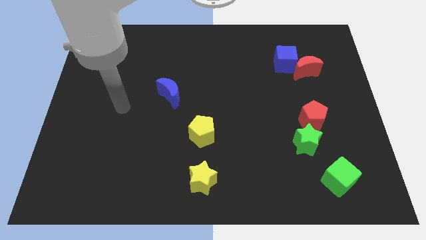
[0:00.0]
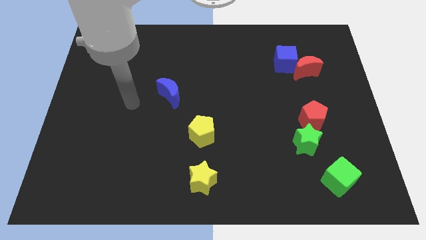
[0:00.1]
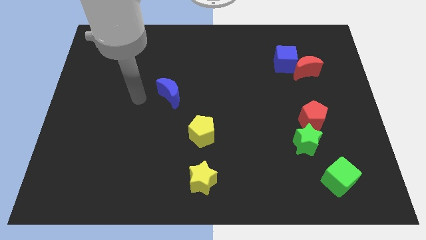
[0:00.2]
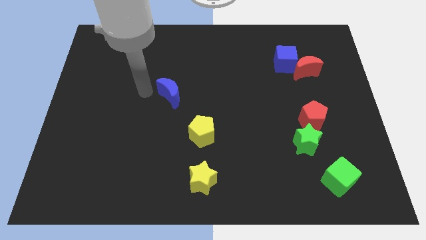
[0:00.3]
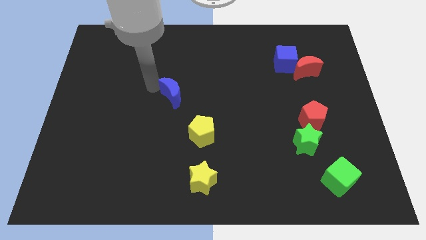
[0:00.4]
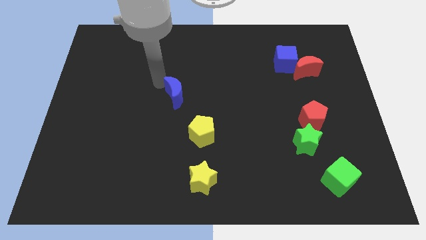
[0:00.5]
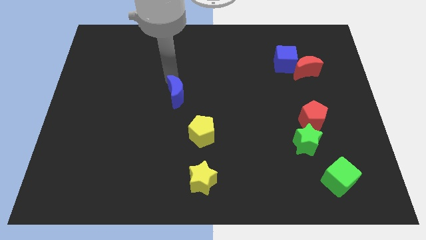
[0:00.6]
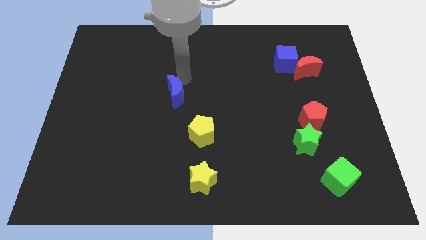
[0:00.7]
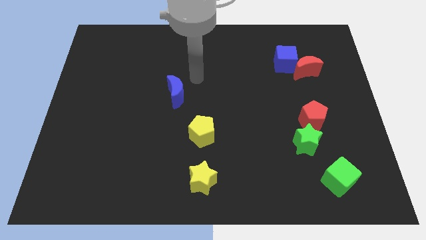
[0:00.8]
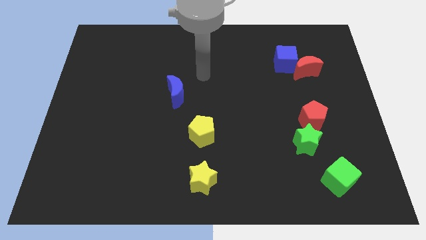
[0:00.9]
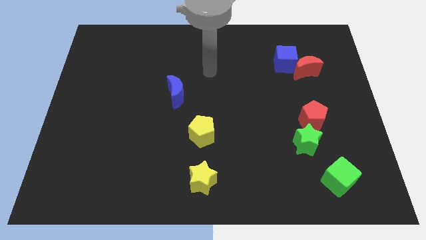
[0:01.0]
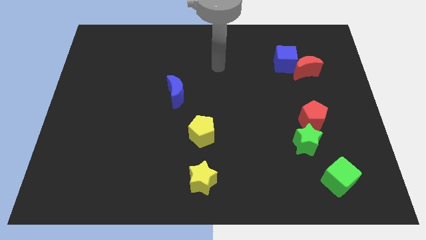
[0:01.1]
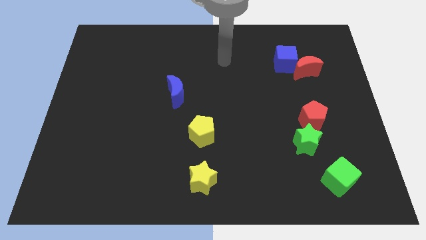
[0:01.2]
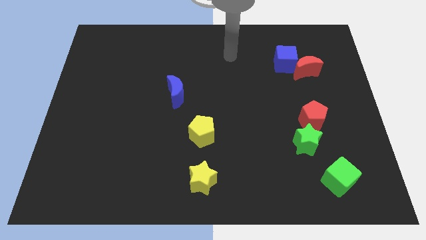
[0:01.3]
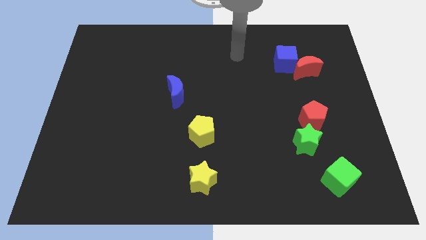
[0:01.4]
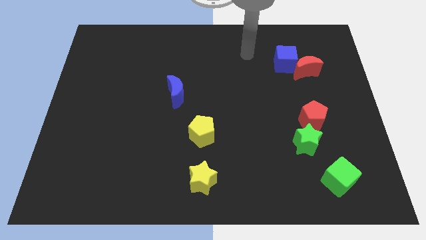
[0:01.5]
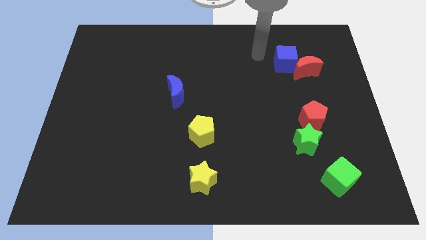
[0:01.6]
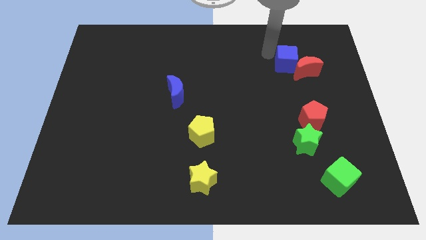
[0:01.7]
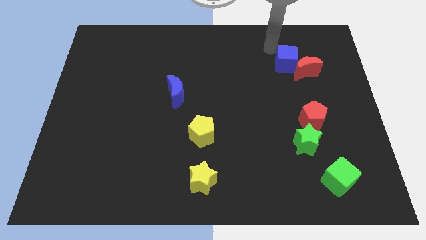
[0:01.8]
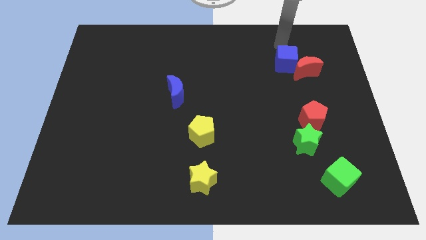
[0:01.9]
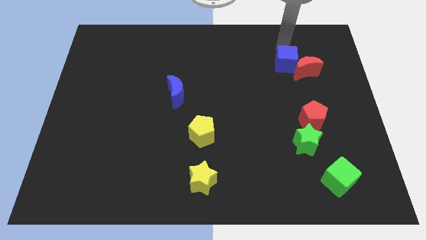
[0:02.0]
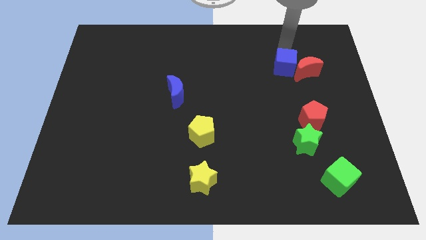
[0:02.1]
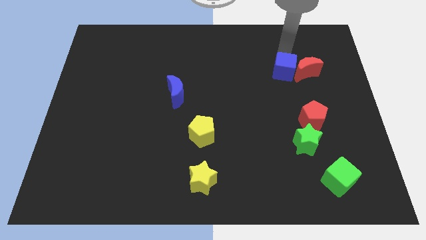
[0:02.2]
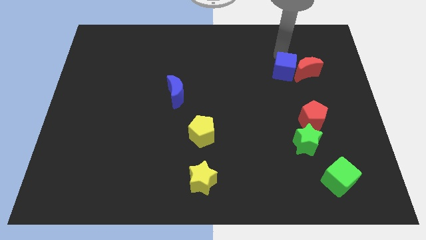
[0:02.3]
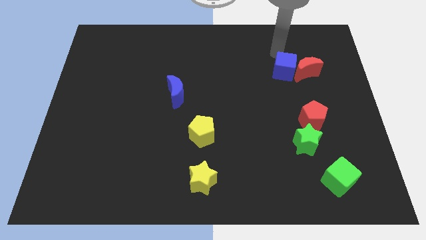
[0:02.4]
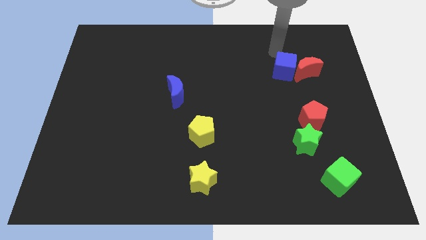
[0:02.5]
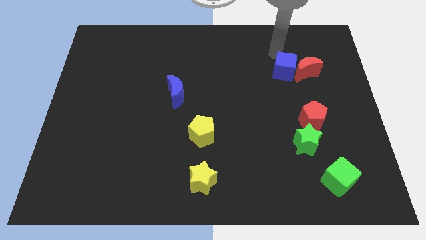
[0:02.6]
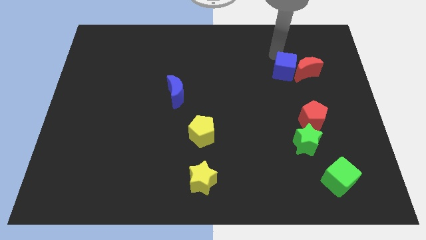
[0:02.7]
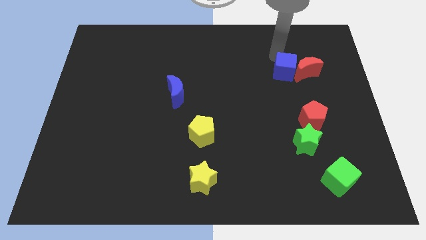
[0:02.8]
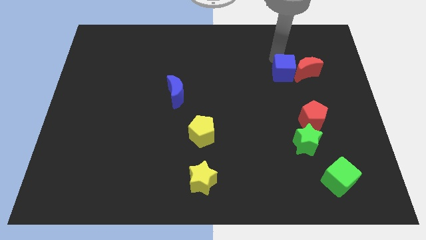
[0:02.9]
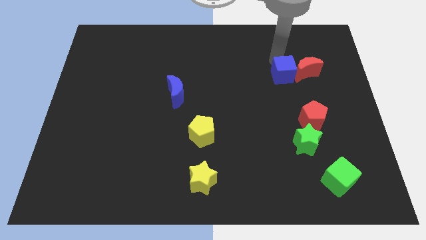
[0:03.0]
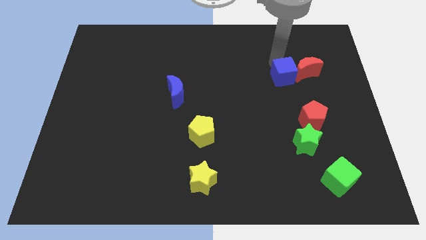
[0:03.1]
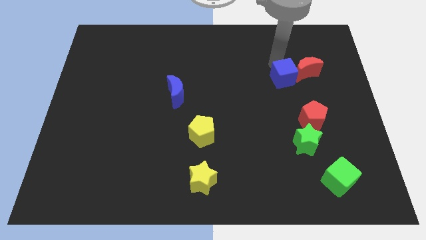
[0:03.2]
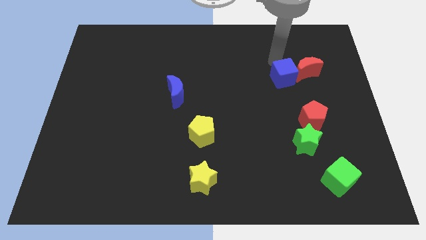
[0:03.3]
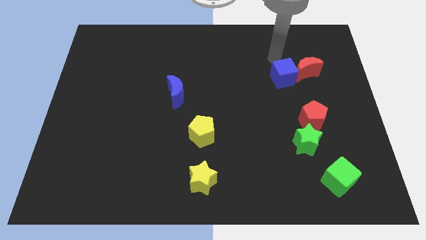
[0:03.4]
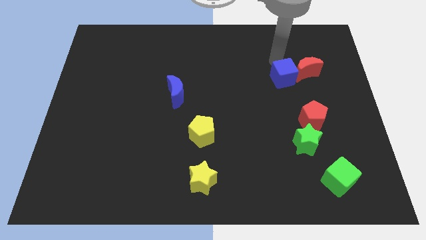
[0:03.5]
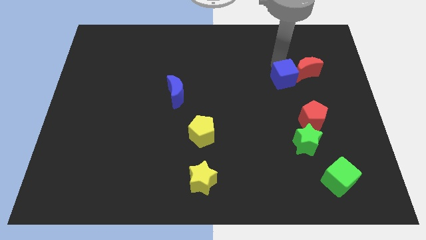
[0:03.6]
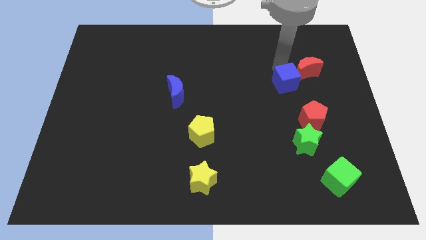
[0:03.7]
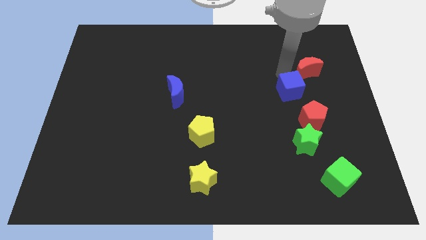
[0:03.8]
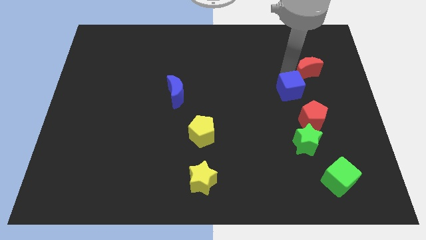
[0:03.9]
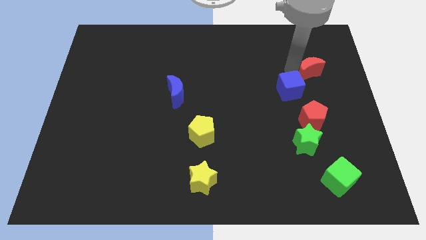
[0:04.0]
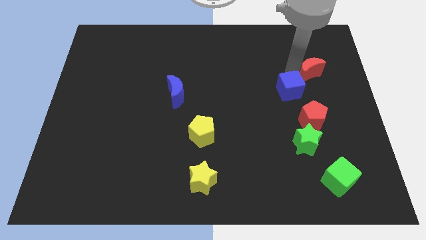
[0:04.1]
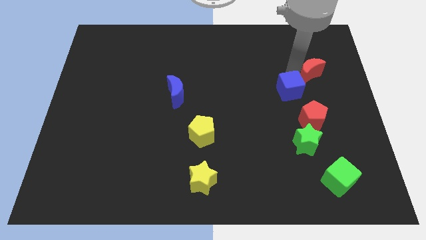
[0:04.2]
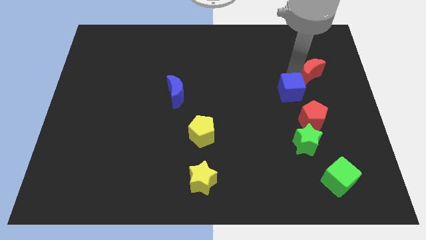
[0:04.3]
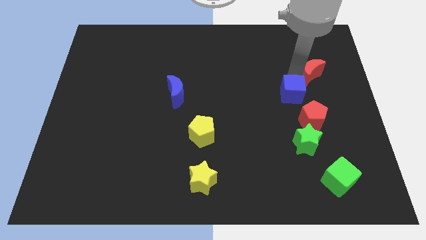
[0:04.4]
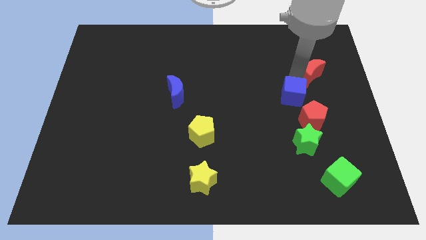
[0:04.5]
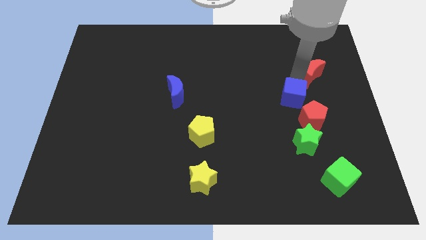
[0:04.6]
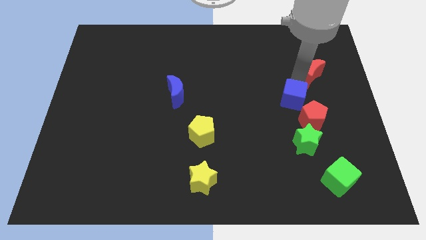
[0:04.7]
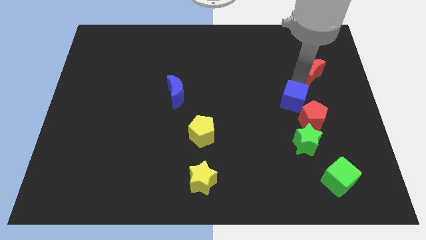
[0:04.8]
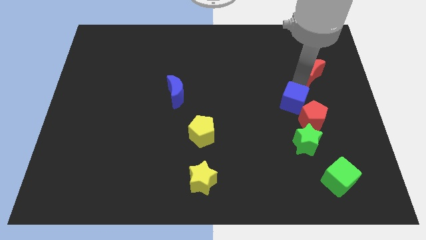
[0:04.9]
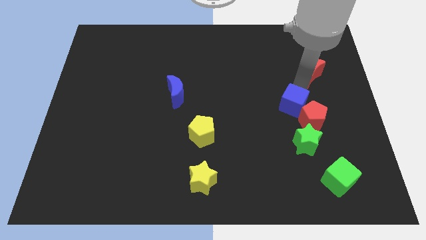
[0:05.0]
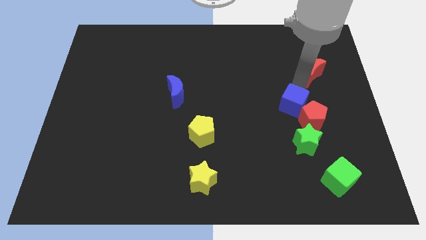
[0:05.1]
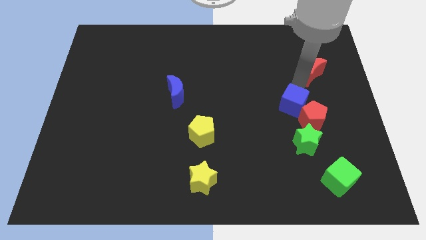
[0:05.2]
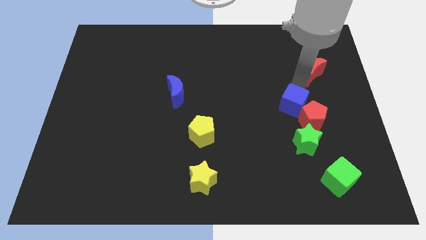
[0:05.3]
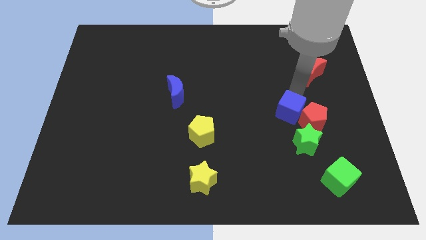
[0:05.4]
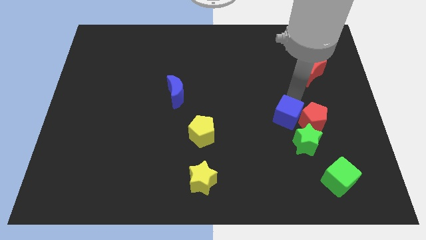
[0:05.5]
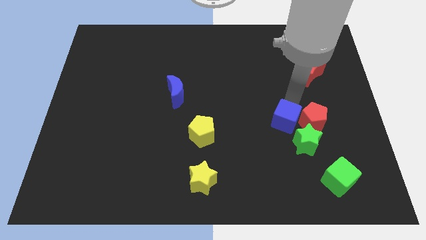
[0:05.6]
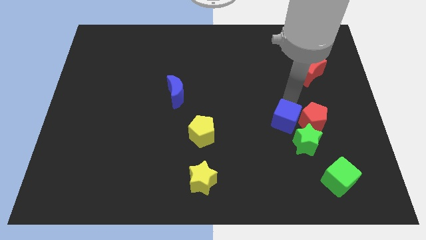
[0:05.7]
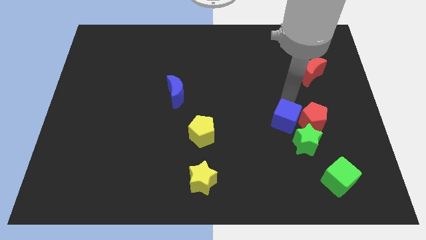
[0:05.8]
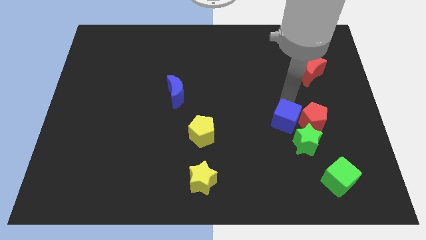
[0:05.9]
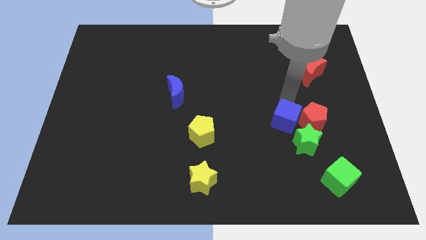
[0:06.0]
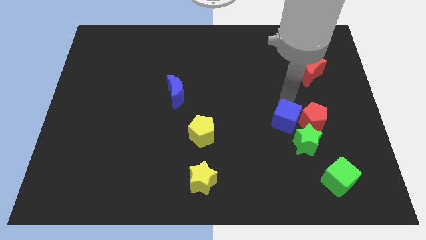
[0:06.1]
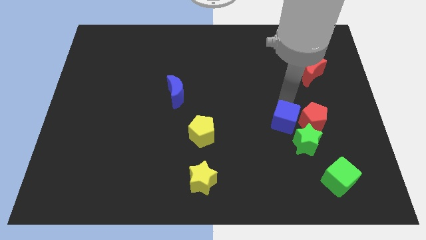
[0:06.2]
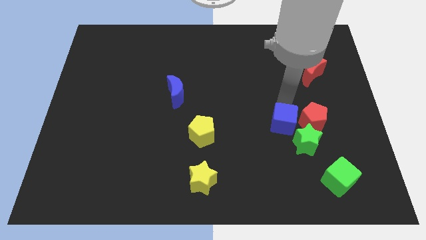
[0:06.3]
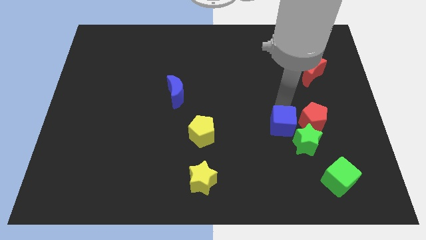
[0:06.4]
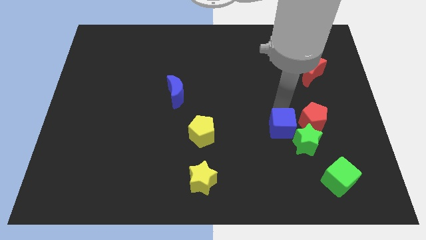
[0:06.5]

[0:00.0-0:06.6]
slide the blue cube downwards

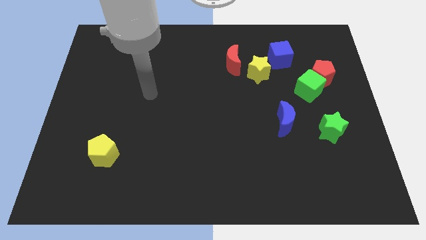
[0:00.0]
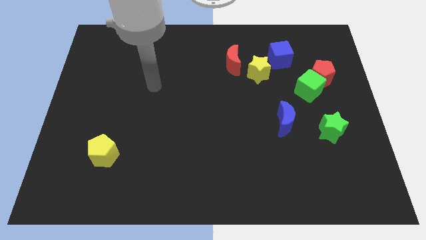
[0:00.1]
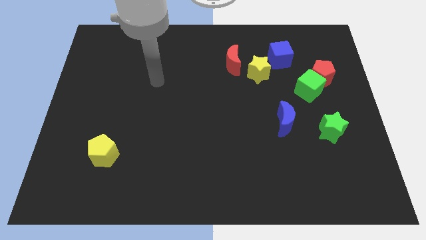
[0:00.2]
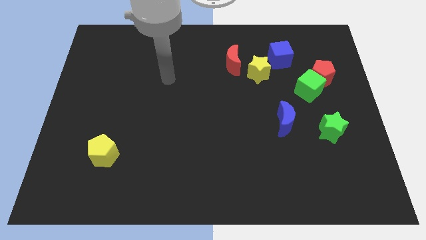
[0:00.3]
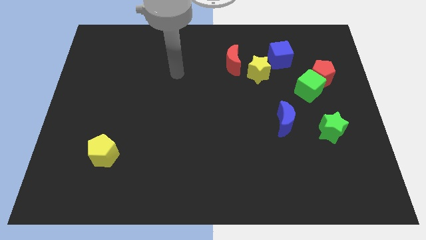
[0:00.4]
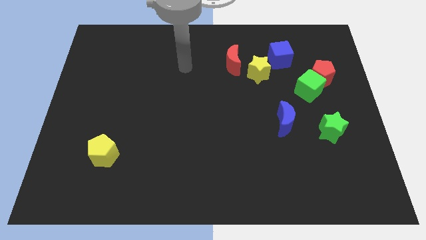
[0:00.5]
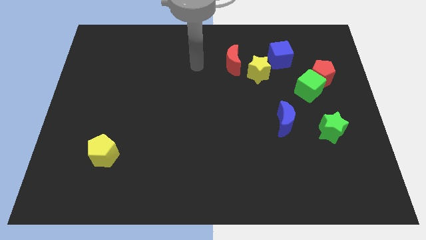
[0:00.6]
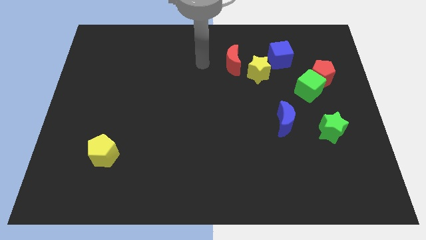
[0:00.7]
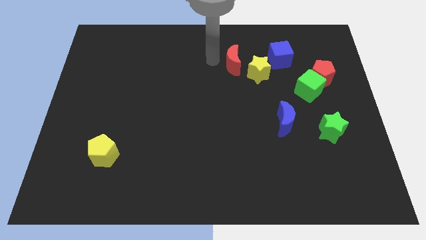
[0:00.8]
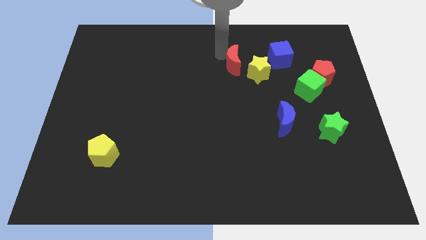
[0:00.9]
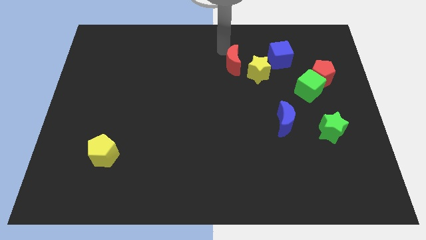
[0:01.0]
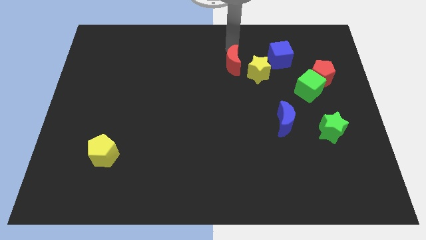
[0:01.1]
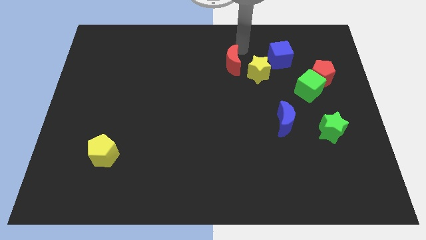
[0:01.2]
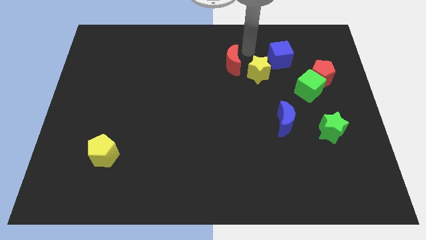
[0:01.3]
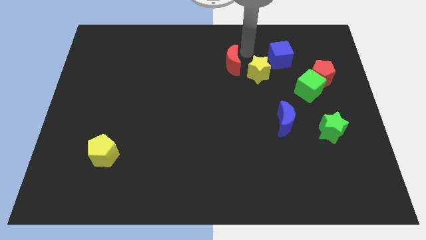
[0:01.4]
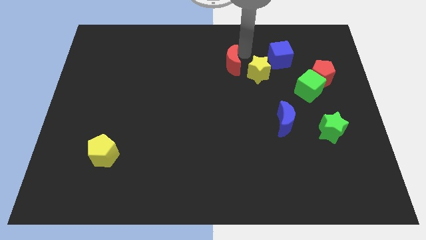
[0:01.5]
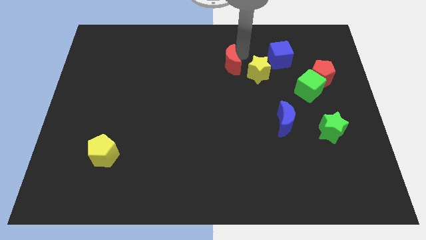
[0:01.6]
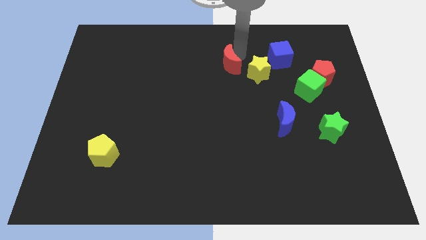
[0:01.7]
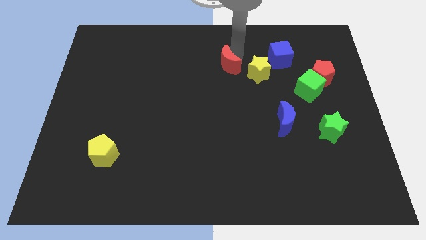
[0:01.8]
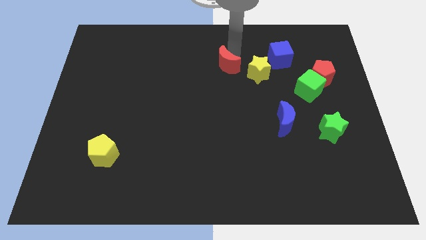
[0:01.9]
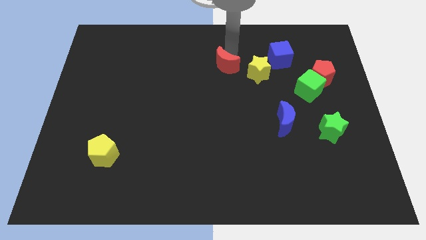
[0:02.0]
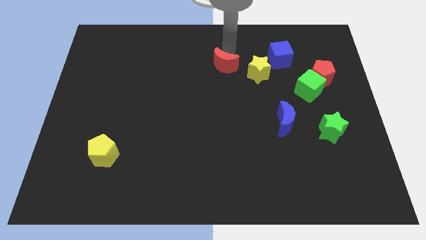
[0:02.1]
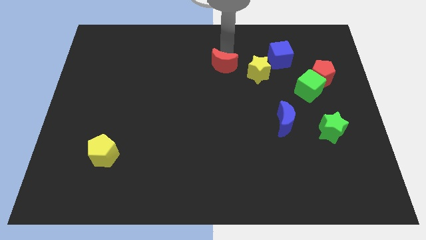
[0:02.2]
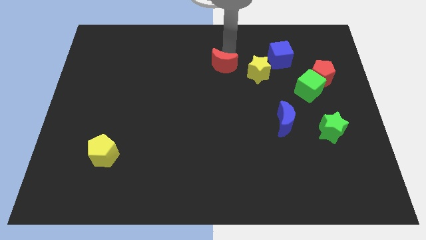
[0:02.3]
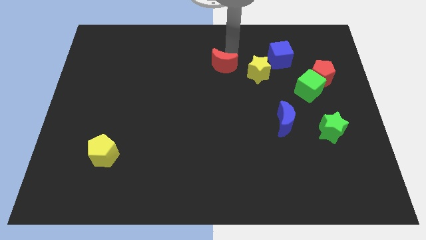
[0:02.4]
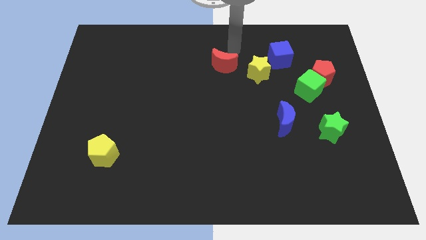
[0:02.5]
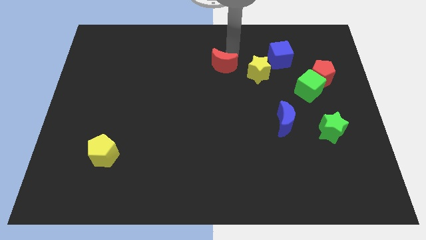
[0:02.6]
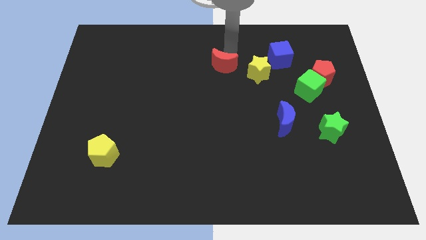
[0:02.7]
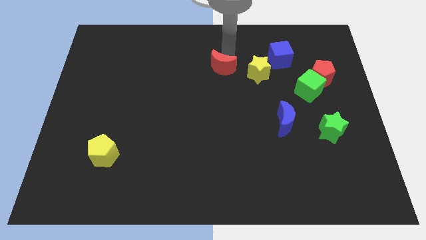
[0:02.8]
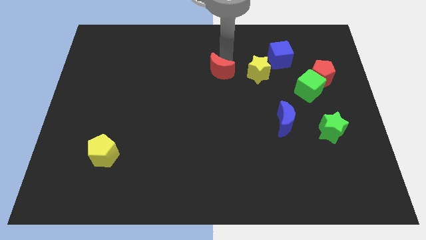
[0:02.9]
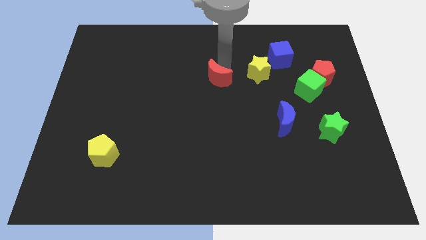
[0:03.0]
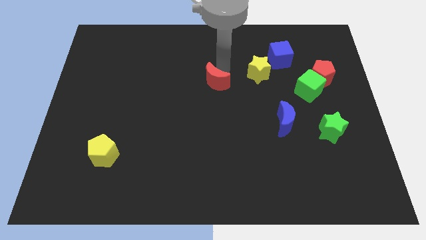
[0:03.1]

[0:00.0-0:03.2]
slightly move the red moon down and left
